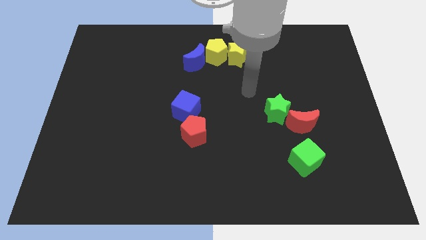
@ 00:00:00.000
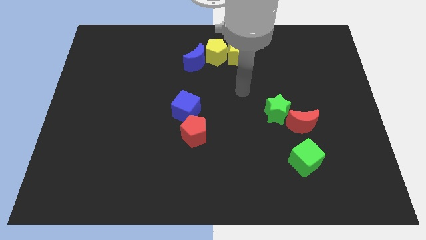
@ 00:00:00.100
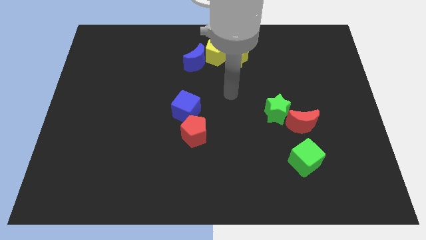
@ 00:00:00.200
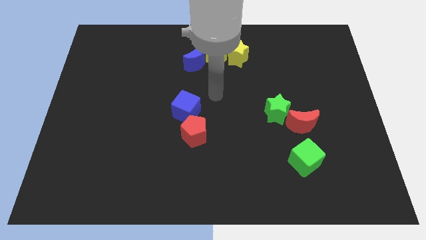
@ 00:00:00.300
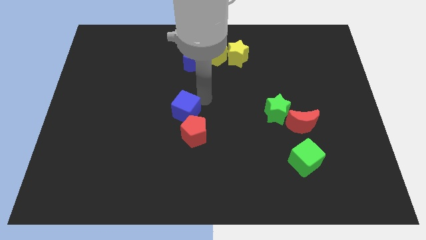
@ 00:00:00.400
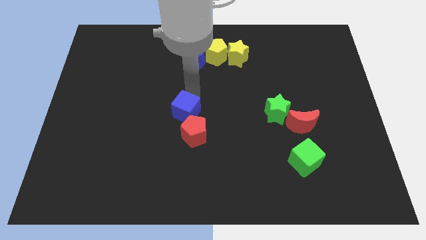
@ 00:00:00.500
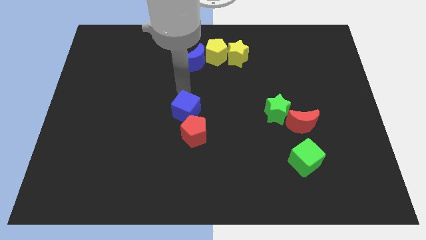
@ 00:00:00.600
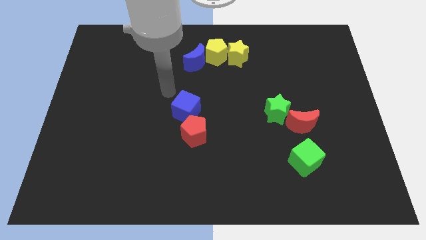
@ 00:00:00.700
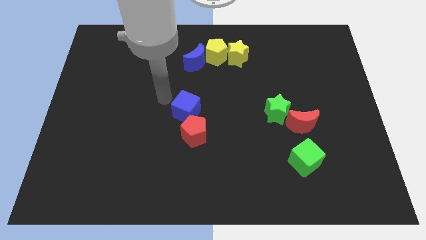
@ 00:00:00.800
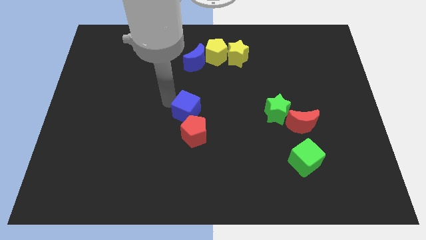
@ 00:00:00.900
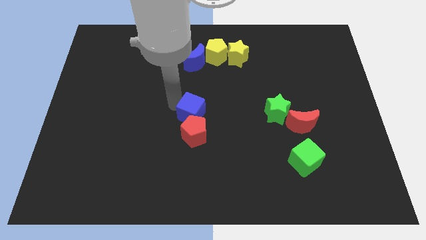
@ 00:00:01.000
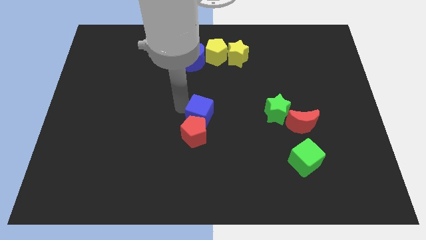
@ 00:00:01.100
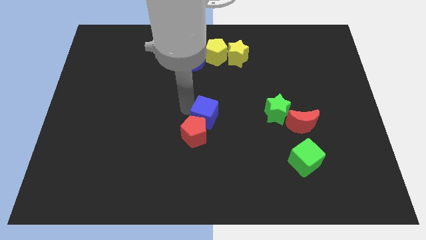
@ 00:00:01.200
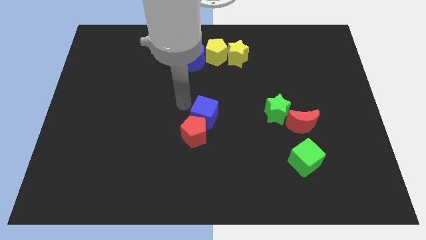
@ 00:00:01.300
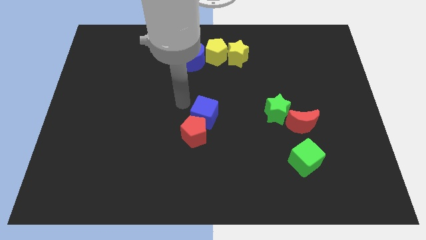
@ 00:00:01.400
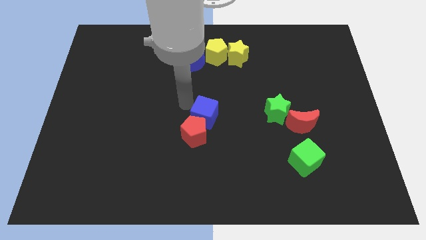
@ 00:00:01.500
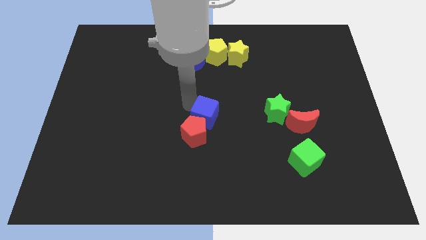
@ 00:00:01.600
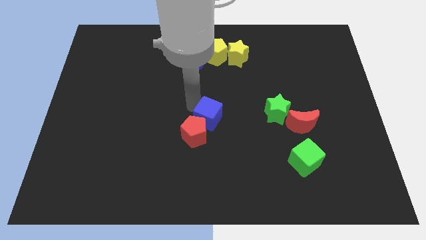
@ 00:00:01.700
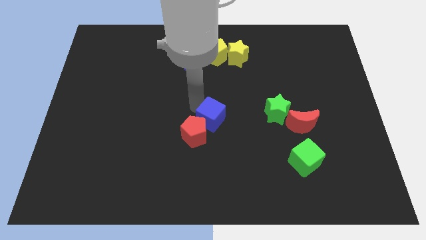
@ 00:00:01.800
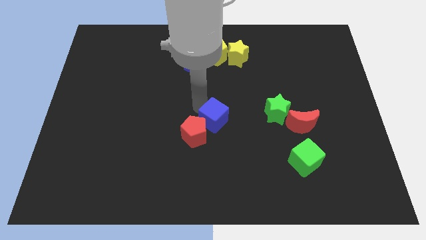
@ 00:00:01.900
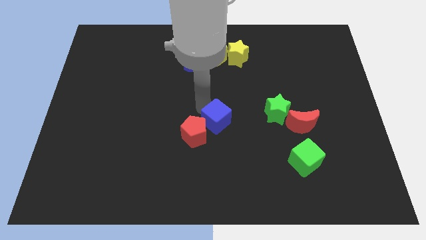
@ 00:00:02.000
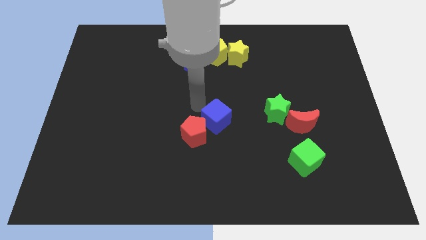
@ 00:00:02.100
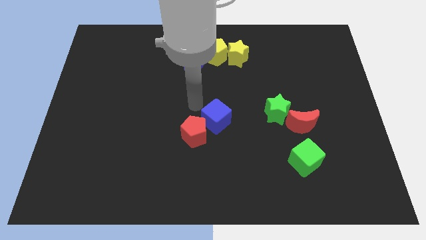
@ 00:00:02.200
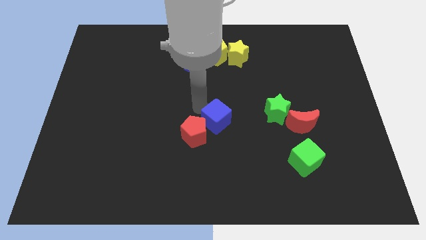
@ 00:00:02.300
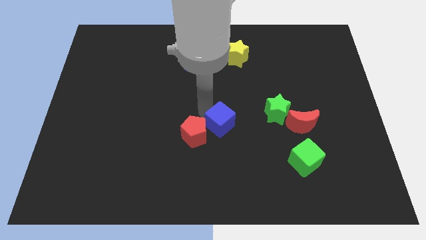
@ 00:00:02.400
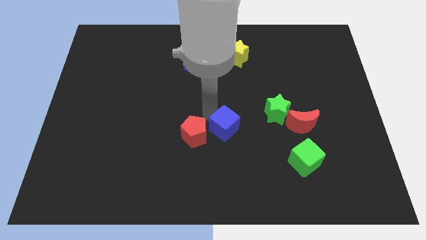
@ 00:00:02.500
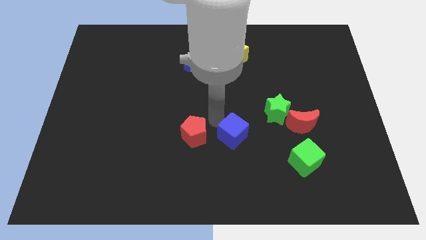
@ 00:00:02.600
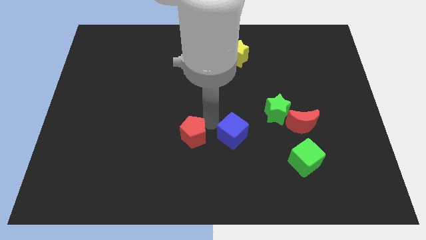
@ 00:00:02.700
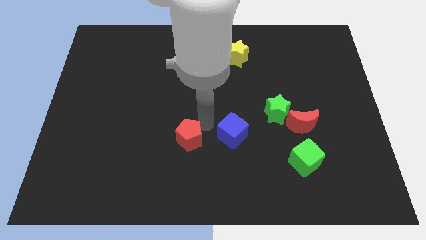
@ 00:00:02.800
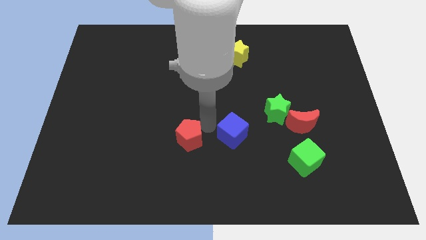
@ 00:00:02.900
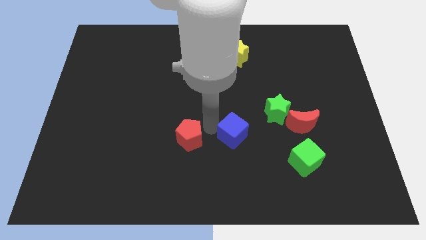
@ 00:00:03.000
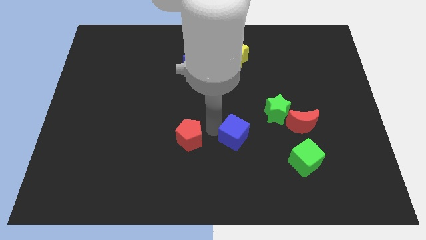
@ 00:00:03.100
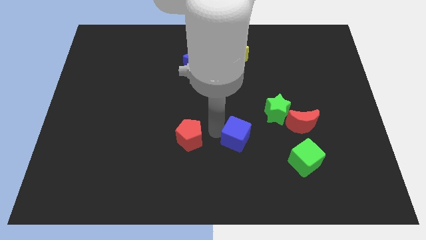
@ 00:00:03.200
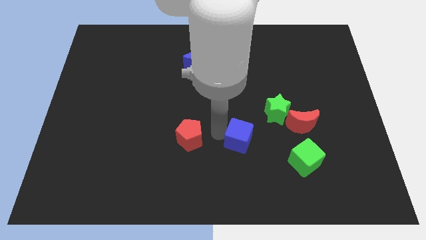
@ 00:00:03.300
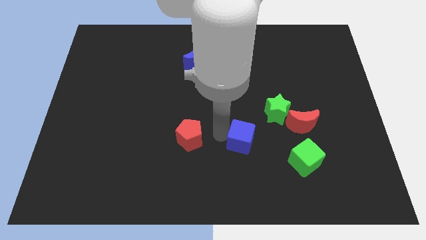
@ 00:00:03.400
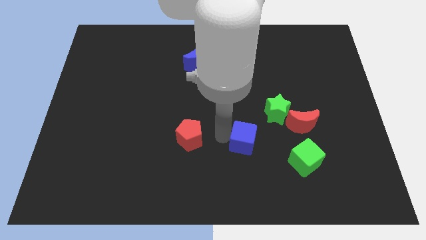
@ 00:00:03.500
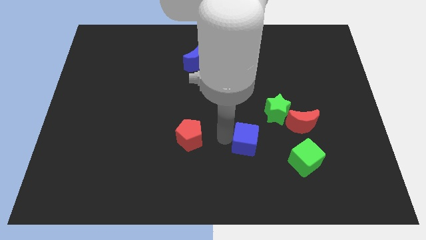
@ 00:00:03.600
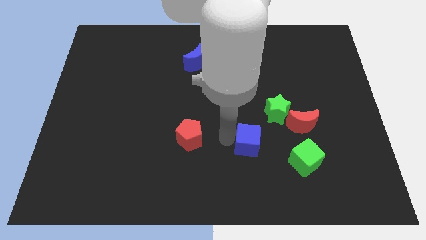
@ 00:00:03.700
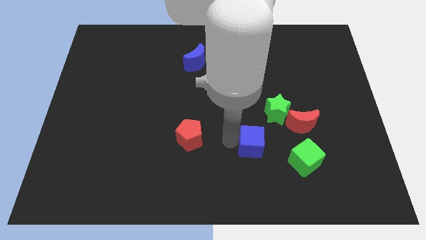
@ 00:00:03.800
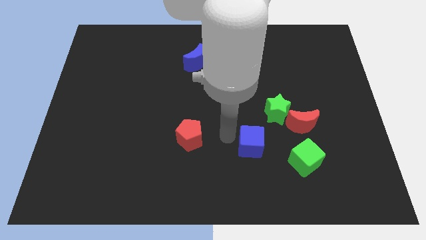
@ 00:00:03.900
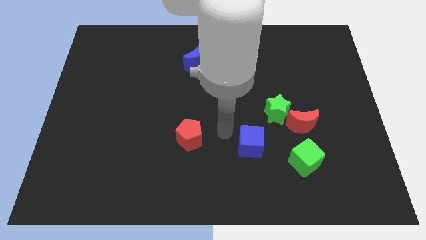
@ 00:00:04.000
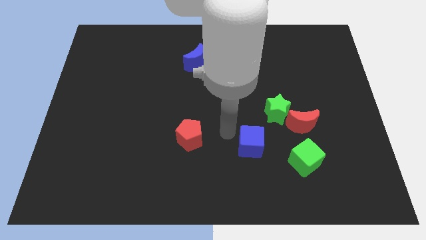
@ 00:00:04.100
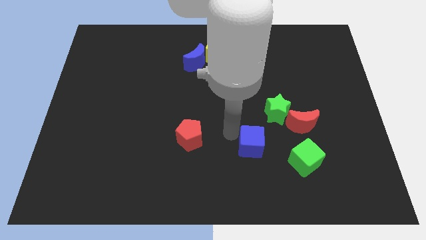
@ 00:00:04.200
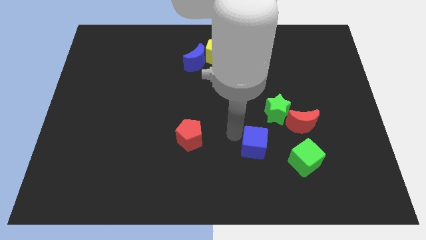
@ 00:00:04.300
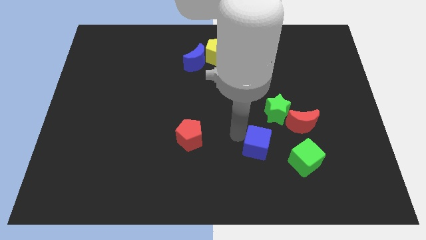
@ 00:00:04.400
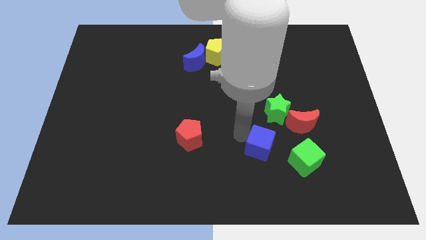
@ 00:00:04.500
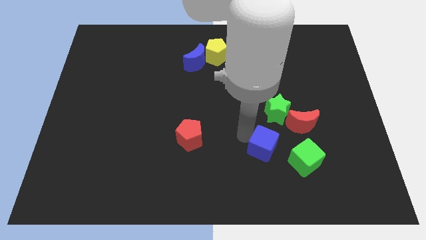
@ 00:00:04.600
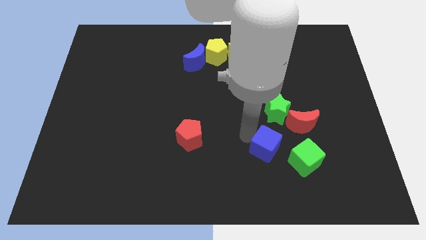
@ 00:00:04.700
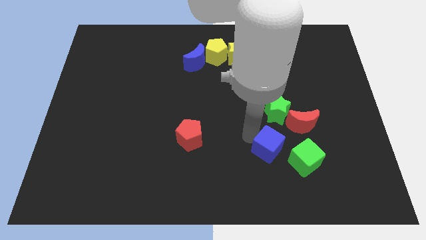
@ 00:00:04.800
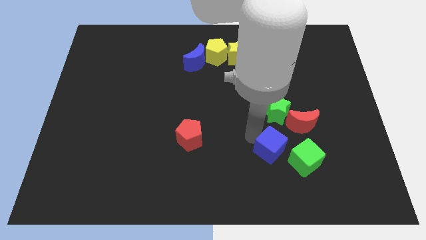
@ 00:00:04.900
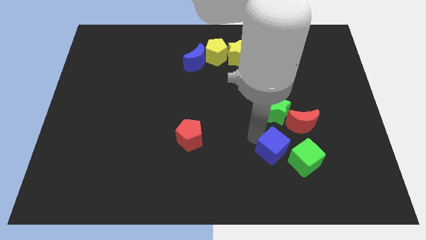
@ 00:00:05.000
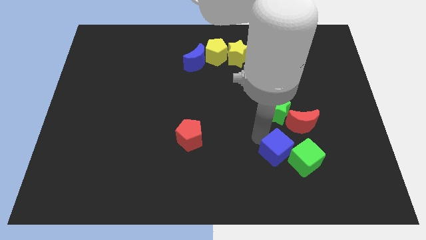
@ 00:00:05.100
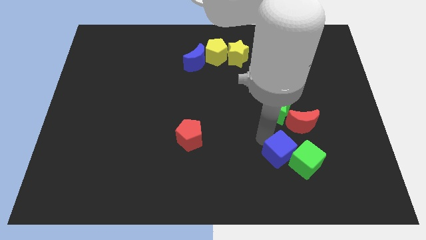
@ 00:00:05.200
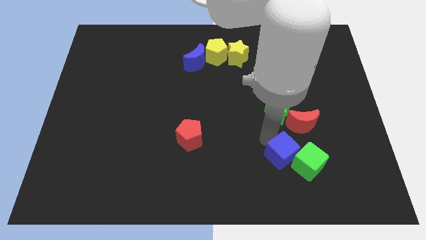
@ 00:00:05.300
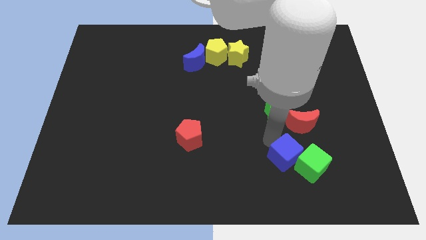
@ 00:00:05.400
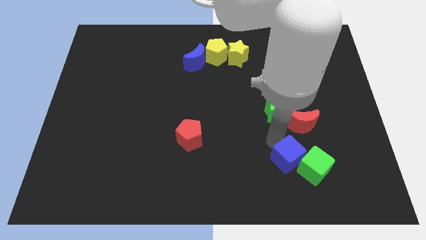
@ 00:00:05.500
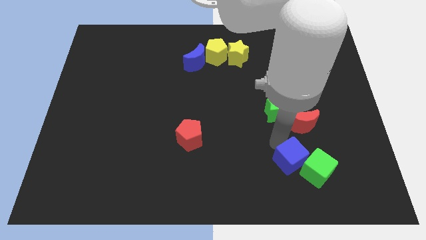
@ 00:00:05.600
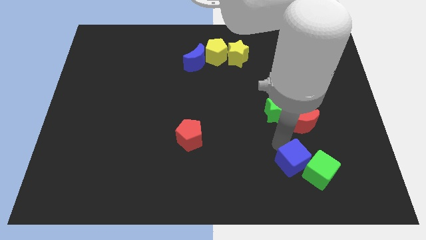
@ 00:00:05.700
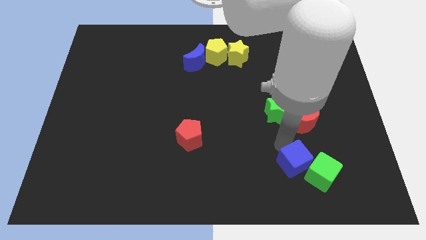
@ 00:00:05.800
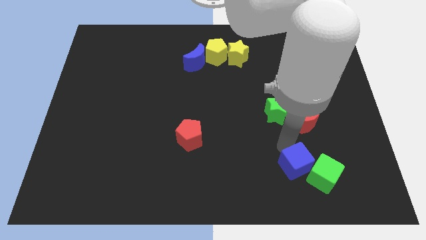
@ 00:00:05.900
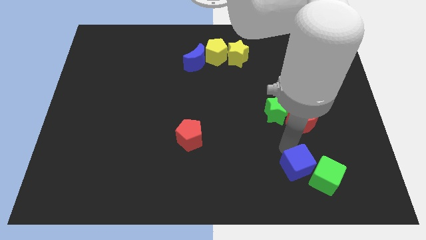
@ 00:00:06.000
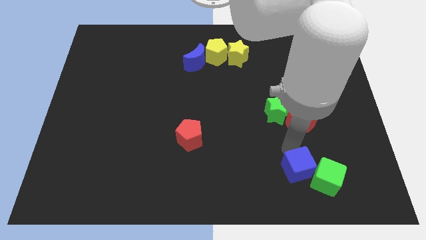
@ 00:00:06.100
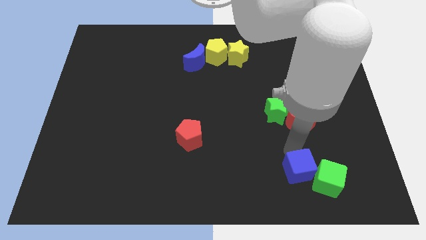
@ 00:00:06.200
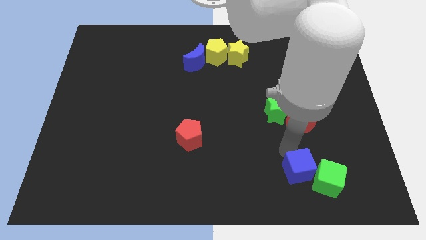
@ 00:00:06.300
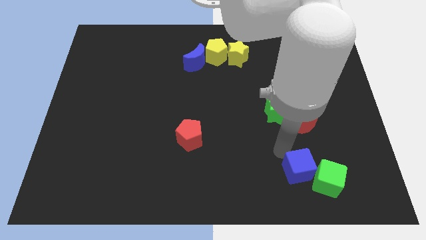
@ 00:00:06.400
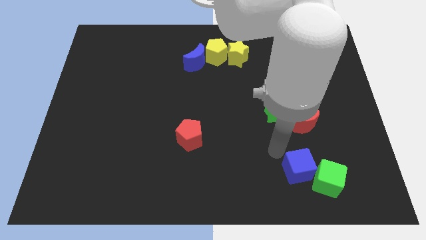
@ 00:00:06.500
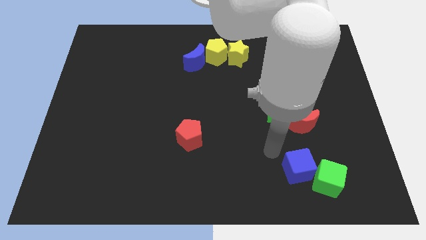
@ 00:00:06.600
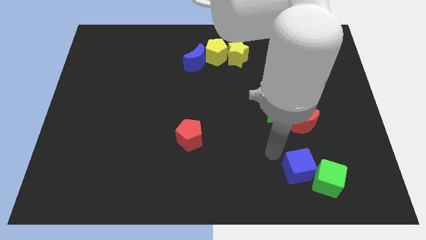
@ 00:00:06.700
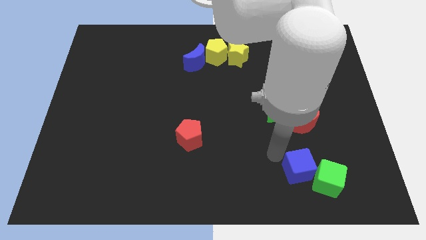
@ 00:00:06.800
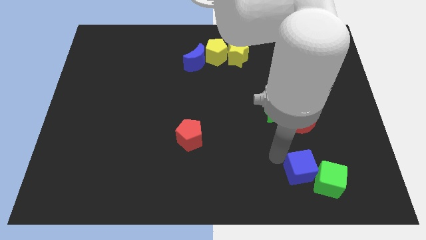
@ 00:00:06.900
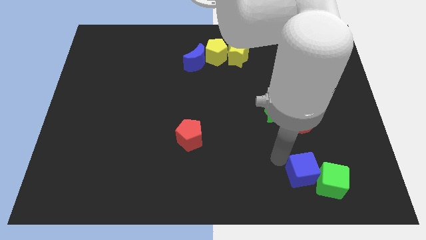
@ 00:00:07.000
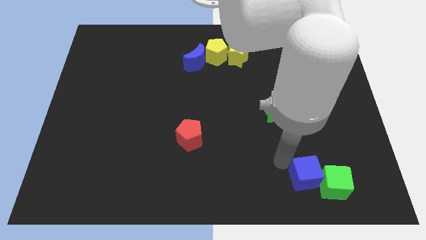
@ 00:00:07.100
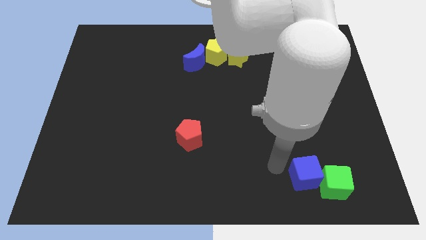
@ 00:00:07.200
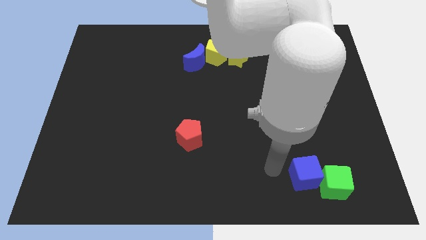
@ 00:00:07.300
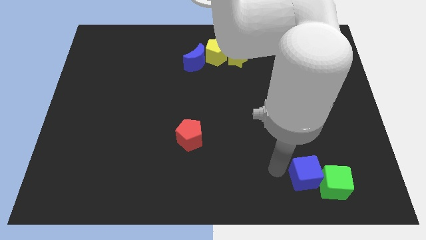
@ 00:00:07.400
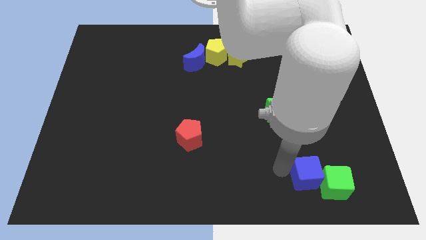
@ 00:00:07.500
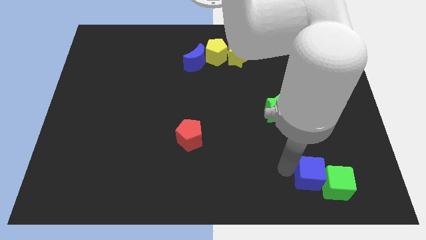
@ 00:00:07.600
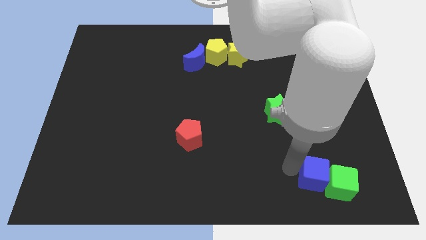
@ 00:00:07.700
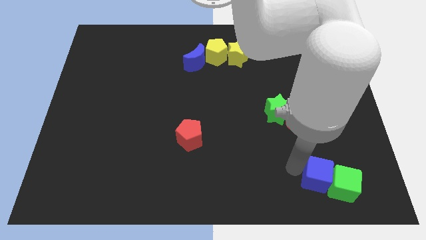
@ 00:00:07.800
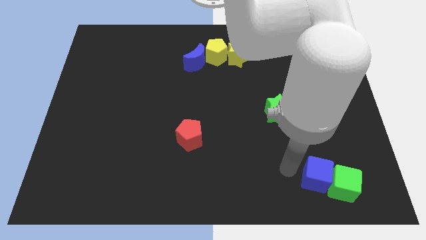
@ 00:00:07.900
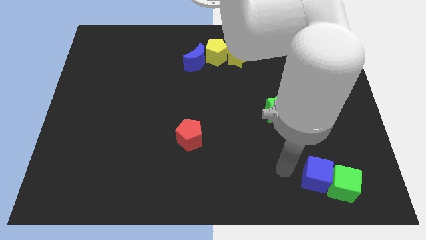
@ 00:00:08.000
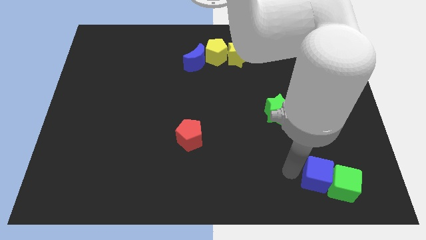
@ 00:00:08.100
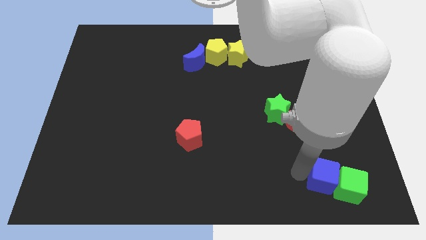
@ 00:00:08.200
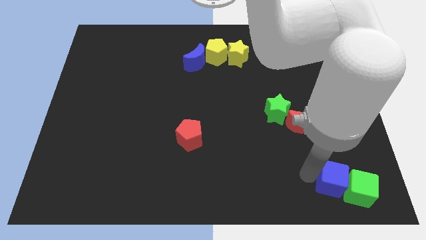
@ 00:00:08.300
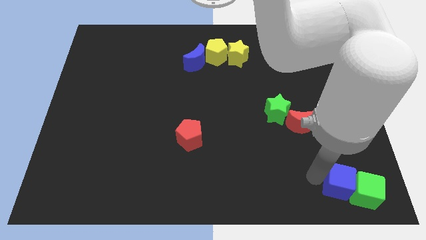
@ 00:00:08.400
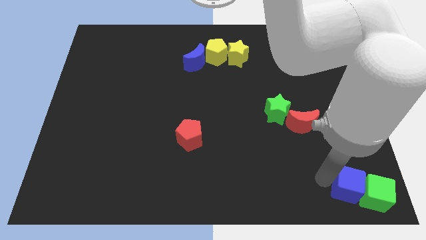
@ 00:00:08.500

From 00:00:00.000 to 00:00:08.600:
put the blue cube to the bottom right of the board
